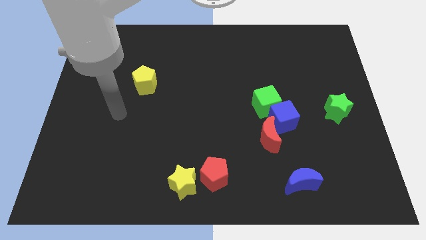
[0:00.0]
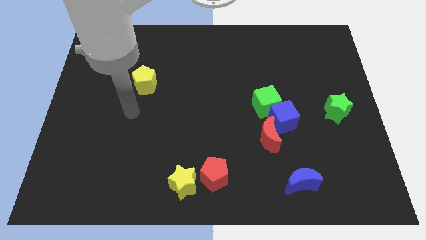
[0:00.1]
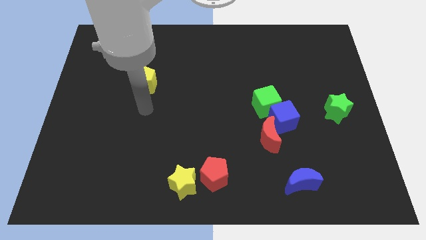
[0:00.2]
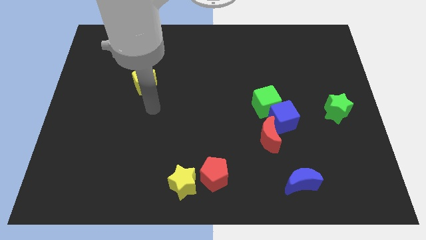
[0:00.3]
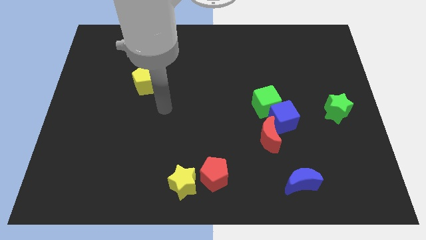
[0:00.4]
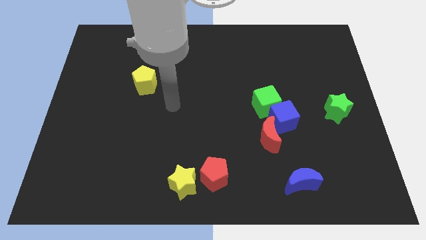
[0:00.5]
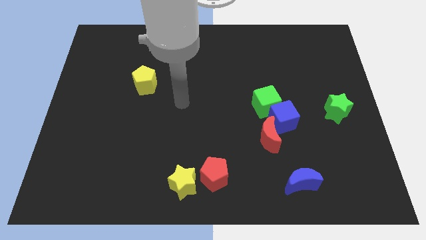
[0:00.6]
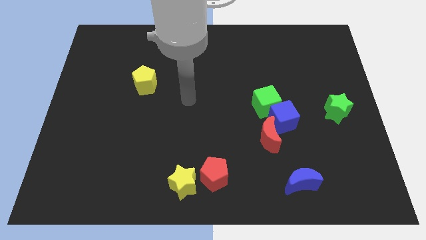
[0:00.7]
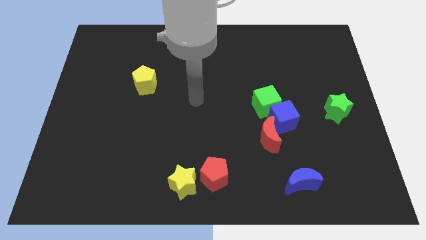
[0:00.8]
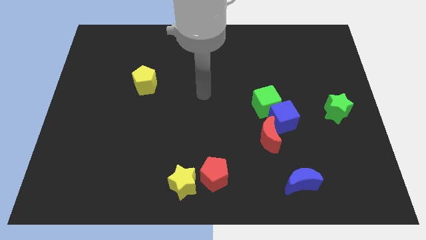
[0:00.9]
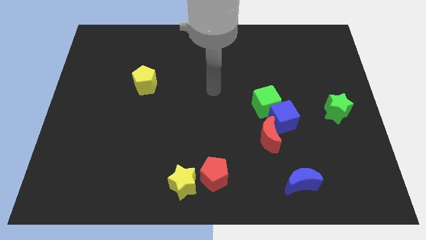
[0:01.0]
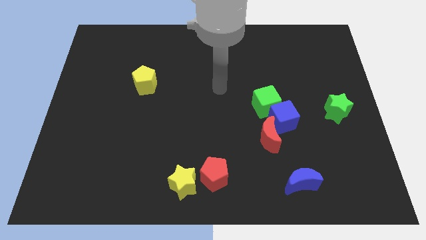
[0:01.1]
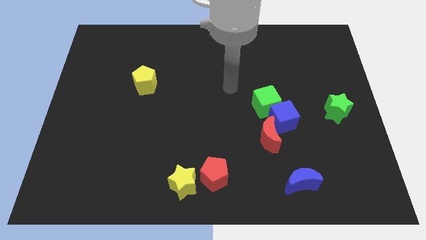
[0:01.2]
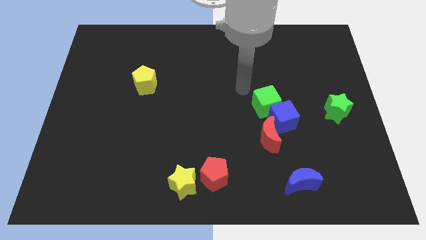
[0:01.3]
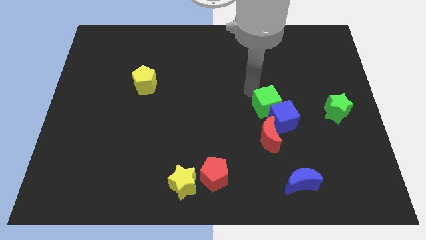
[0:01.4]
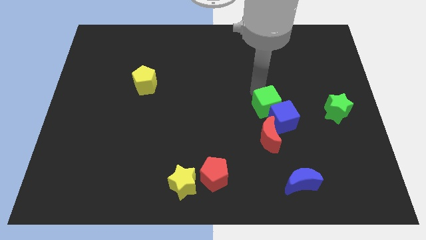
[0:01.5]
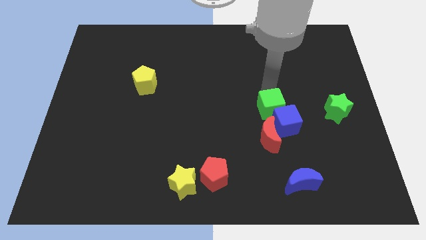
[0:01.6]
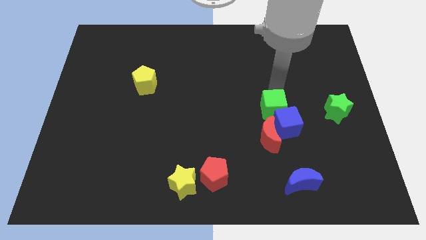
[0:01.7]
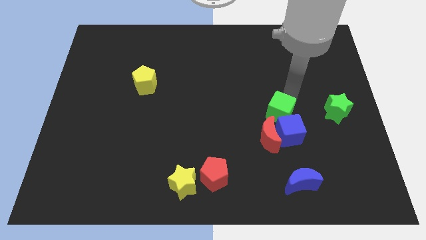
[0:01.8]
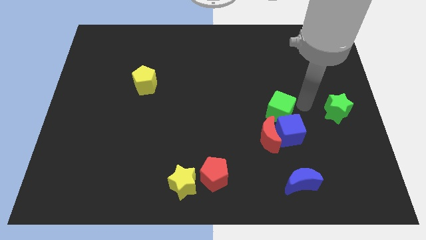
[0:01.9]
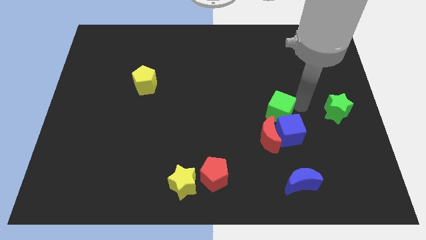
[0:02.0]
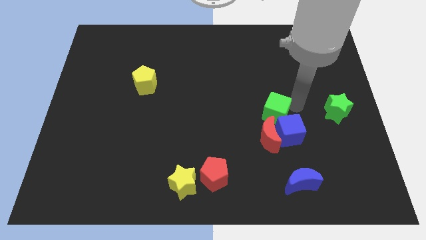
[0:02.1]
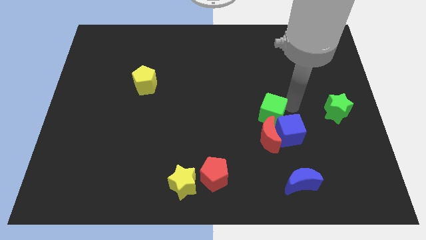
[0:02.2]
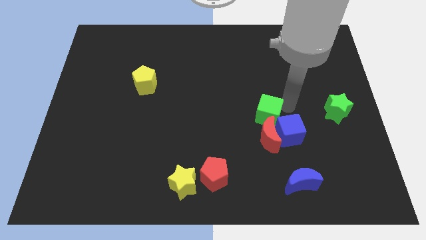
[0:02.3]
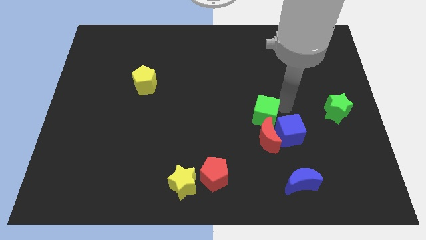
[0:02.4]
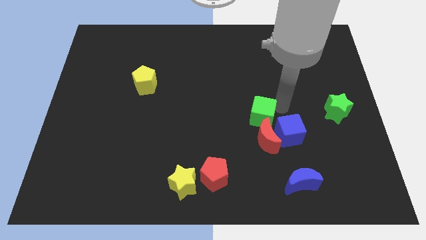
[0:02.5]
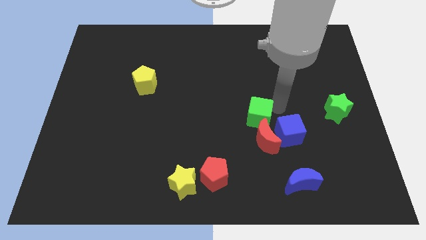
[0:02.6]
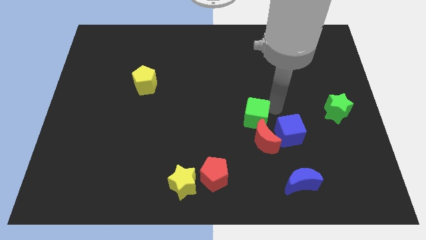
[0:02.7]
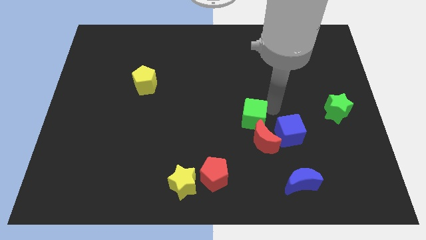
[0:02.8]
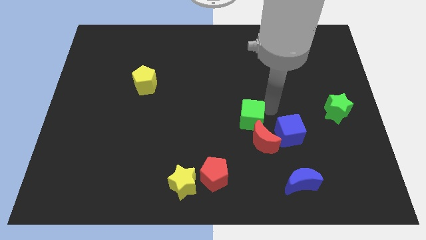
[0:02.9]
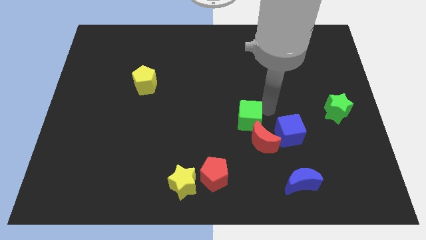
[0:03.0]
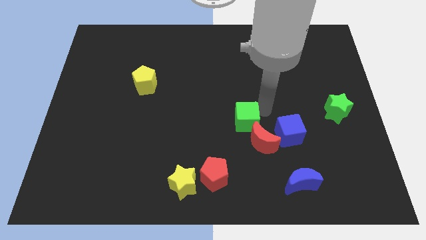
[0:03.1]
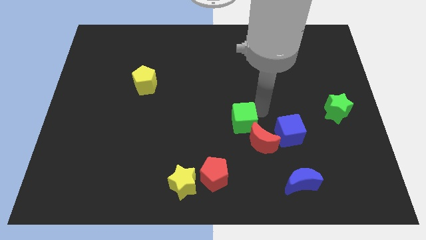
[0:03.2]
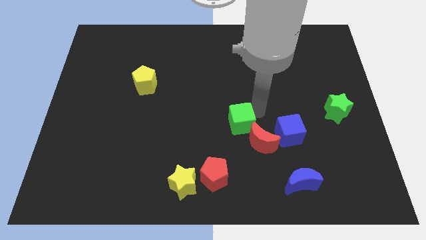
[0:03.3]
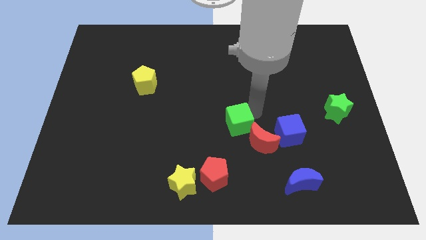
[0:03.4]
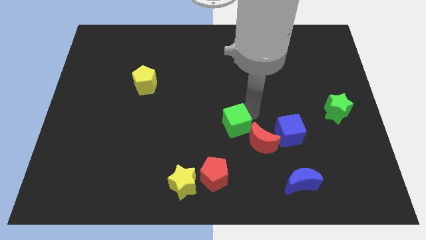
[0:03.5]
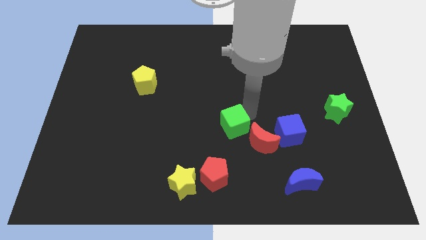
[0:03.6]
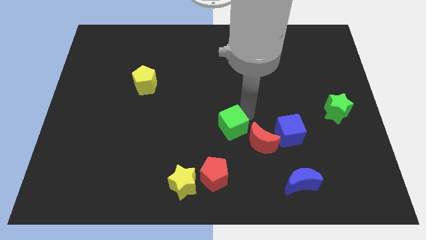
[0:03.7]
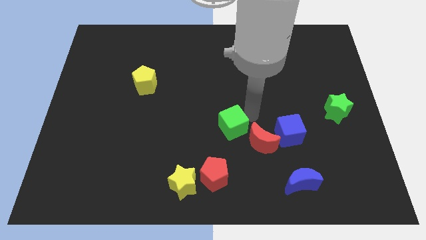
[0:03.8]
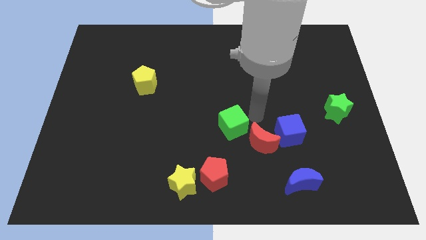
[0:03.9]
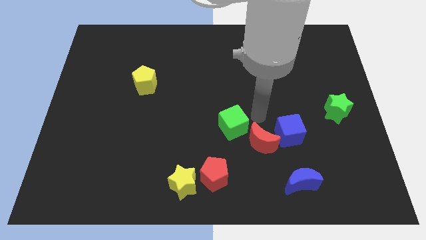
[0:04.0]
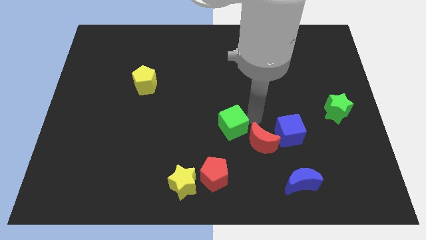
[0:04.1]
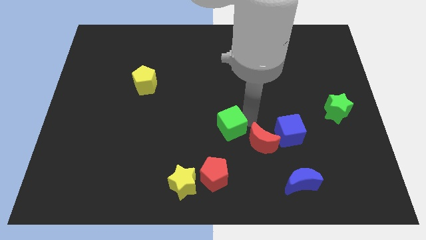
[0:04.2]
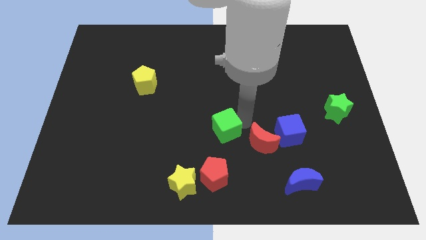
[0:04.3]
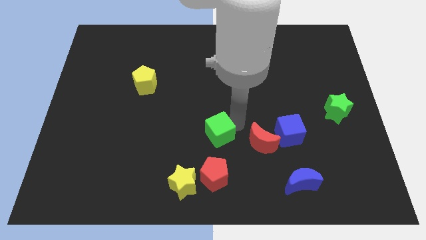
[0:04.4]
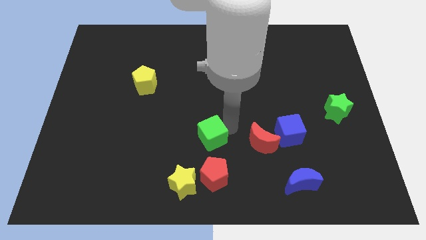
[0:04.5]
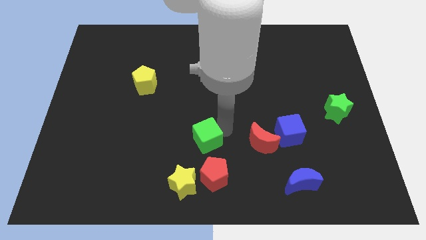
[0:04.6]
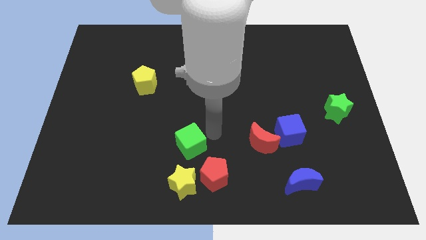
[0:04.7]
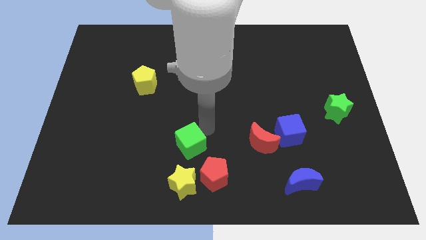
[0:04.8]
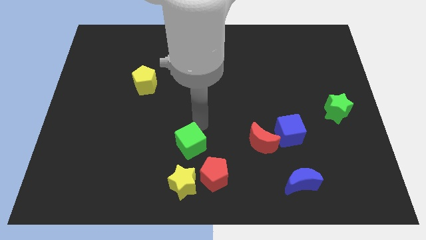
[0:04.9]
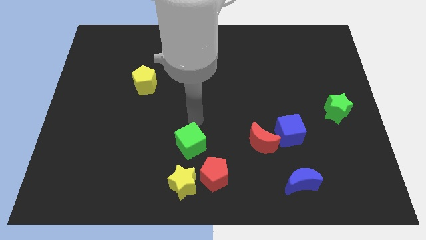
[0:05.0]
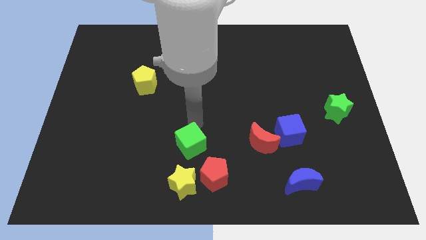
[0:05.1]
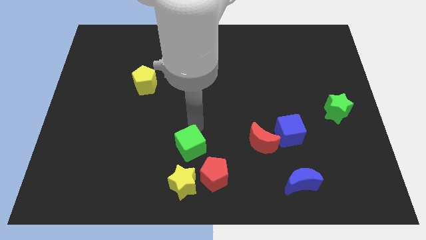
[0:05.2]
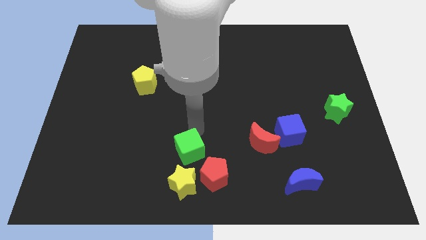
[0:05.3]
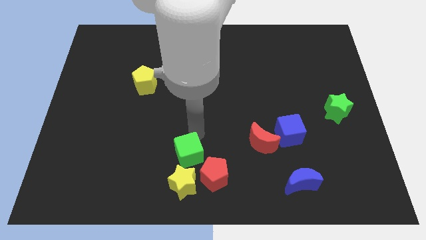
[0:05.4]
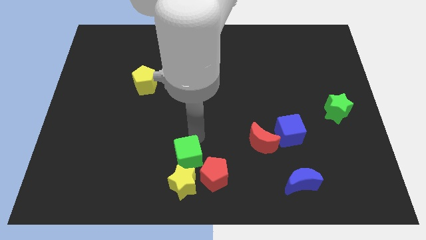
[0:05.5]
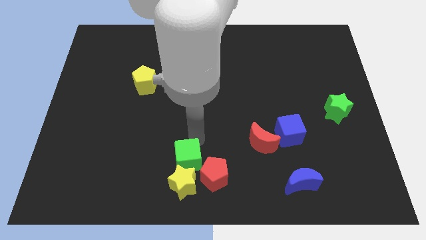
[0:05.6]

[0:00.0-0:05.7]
push the green cube towards the yellow star

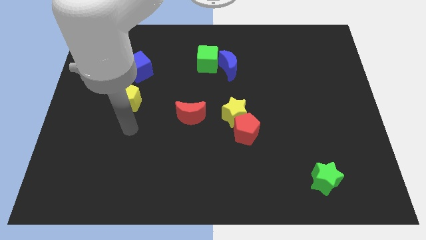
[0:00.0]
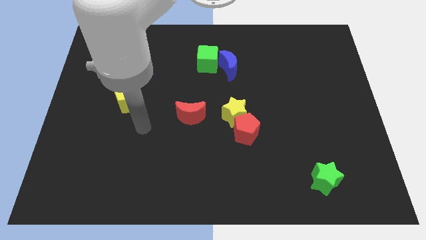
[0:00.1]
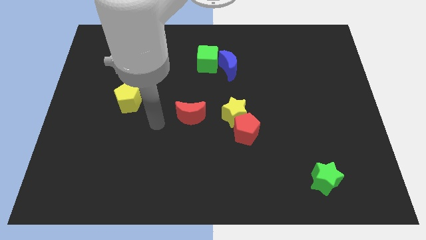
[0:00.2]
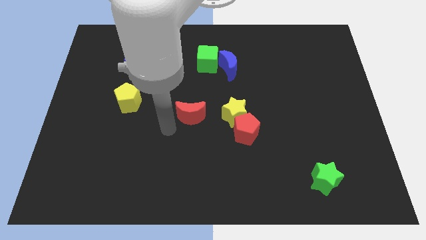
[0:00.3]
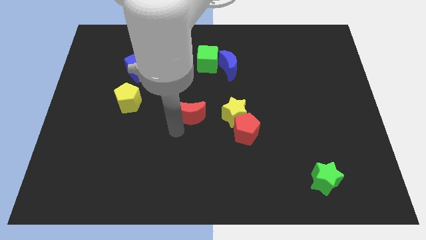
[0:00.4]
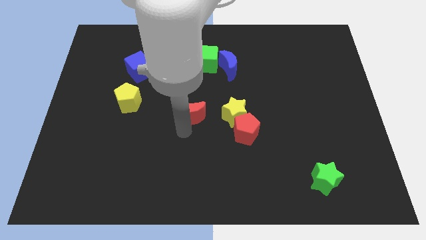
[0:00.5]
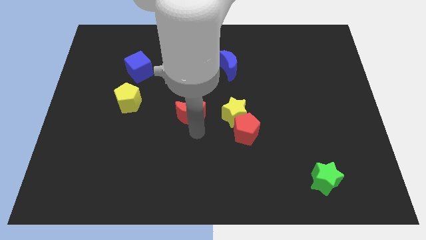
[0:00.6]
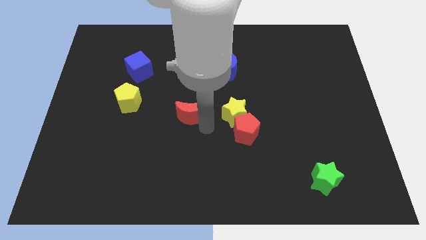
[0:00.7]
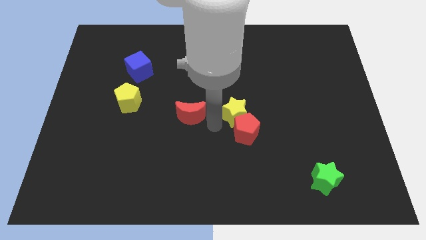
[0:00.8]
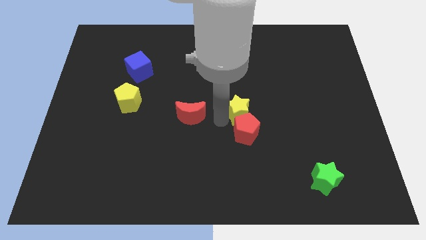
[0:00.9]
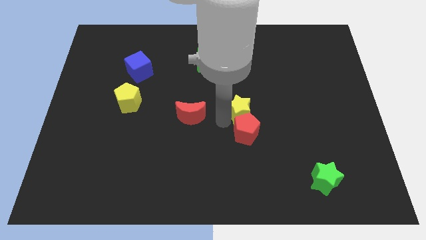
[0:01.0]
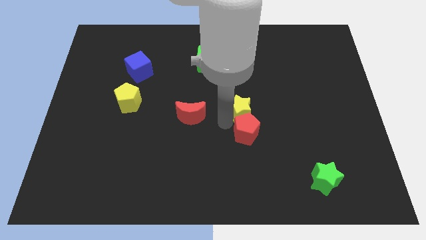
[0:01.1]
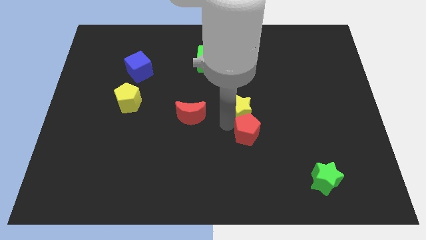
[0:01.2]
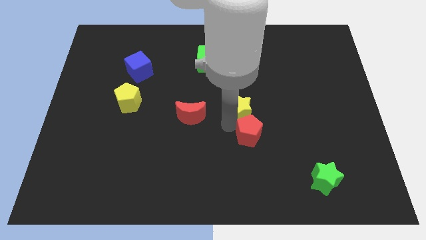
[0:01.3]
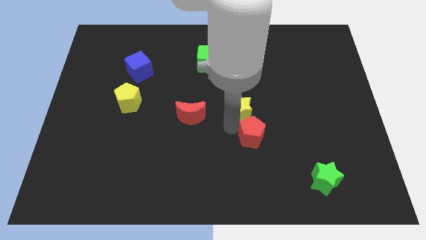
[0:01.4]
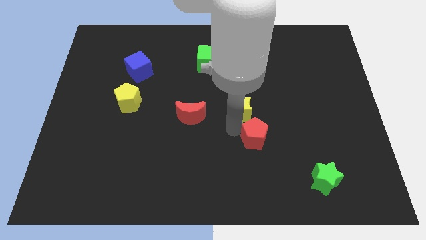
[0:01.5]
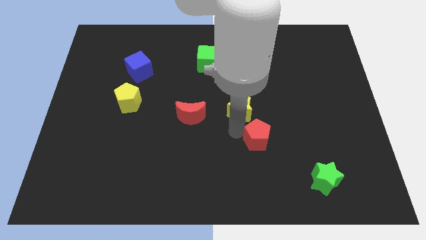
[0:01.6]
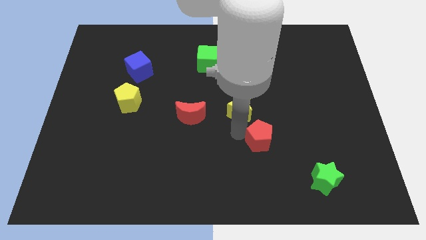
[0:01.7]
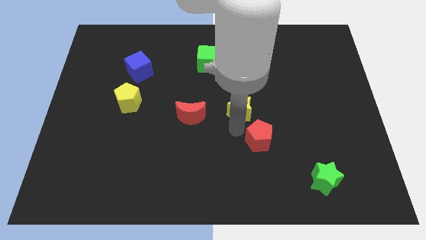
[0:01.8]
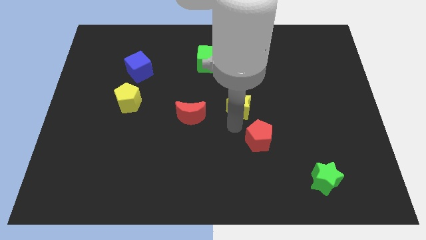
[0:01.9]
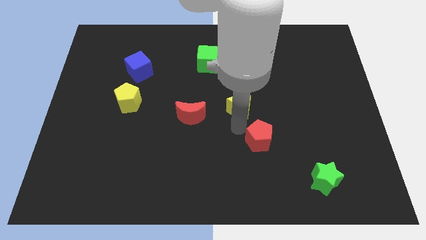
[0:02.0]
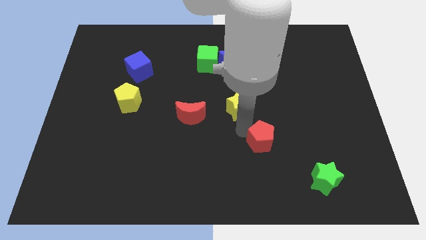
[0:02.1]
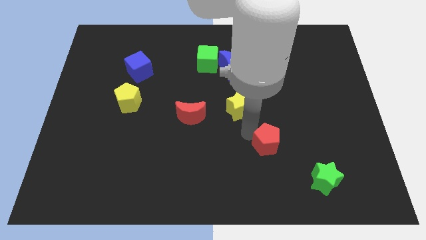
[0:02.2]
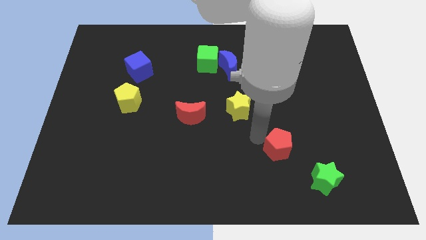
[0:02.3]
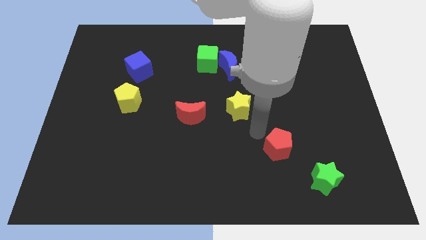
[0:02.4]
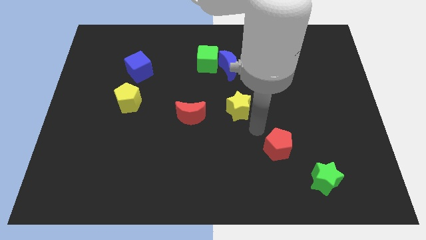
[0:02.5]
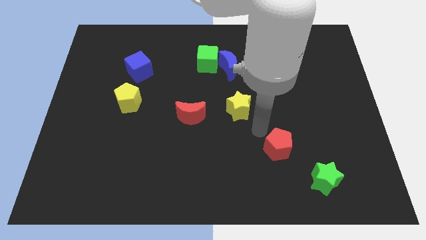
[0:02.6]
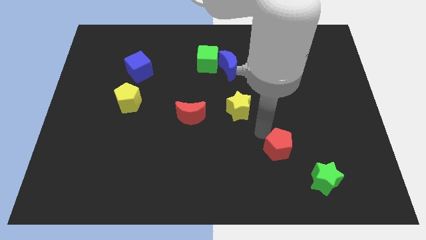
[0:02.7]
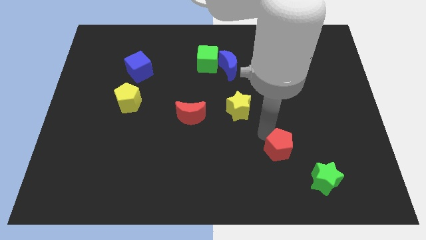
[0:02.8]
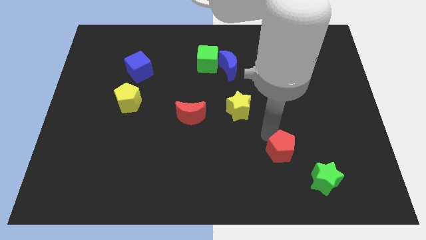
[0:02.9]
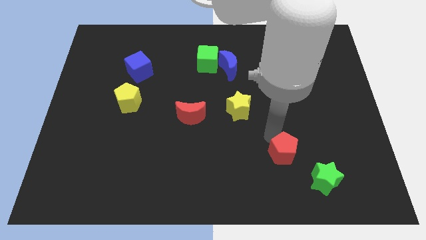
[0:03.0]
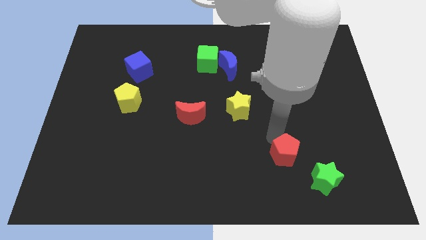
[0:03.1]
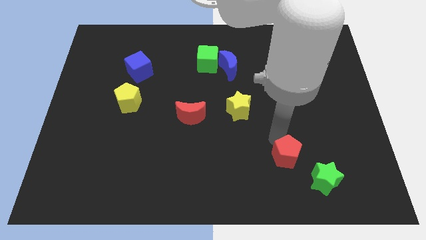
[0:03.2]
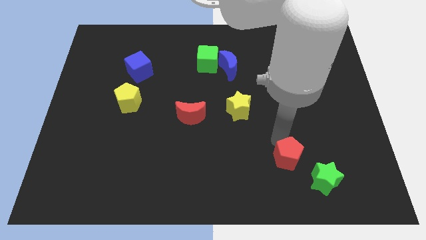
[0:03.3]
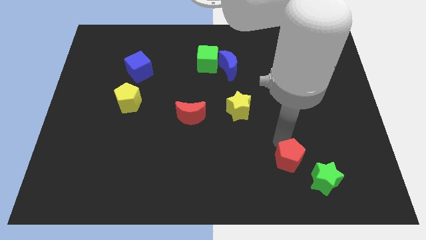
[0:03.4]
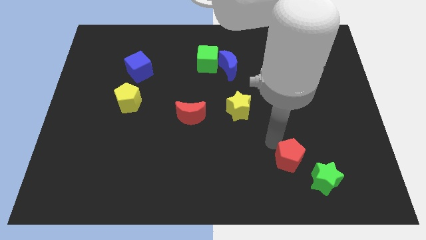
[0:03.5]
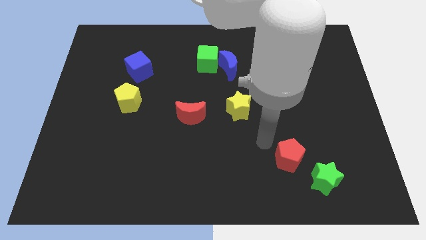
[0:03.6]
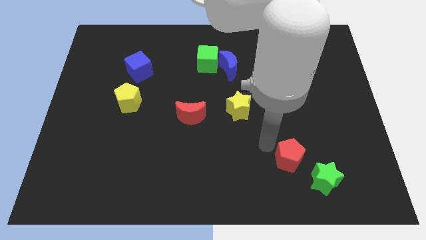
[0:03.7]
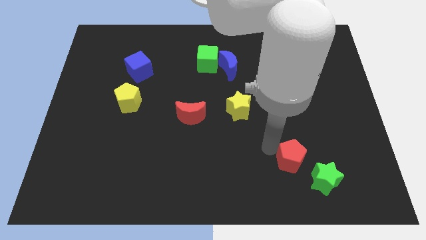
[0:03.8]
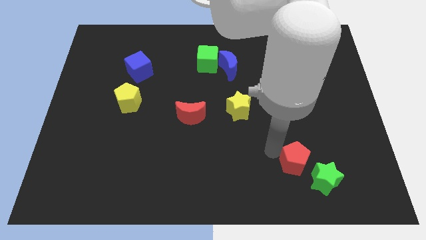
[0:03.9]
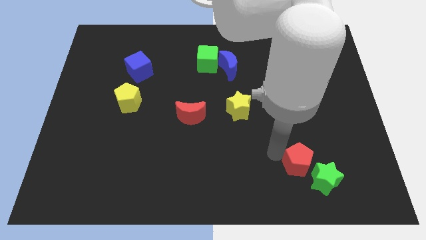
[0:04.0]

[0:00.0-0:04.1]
slide the red pentagon towards the green star
